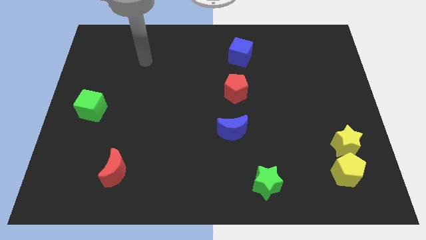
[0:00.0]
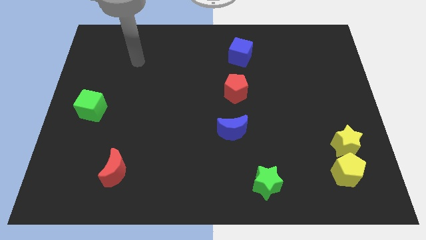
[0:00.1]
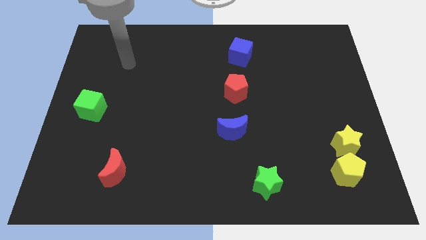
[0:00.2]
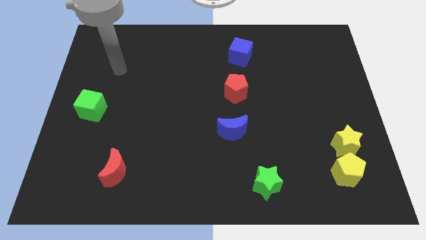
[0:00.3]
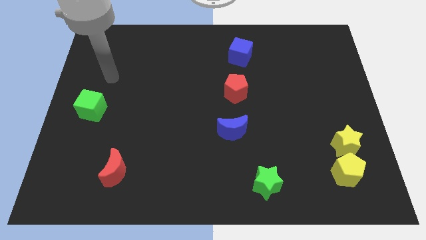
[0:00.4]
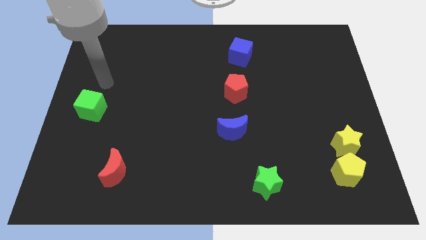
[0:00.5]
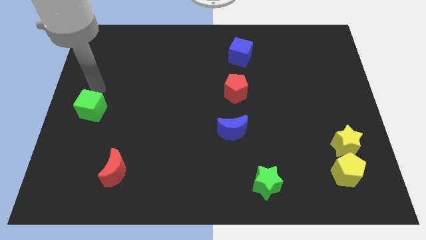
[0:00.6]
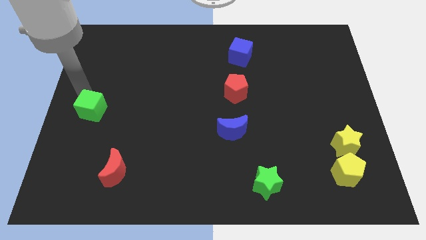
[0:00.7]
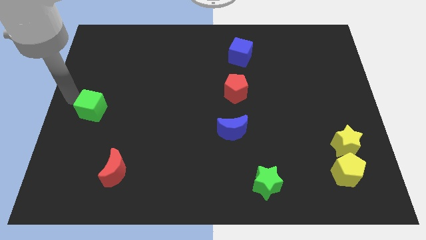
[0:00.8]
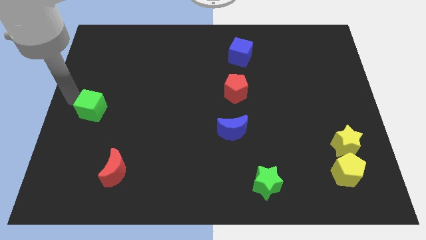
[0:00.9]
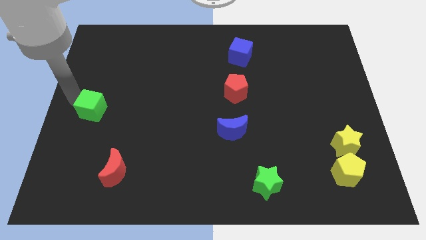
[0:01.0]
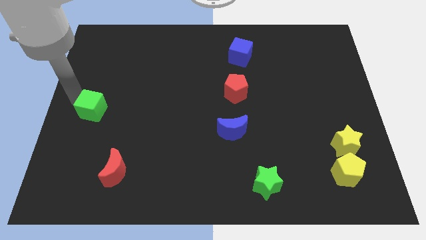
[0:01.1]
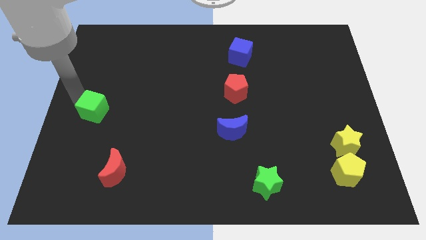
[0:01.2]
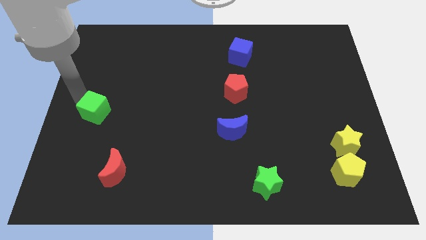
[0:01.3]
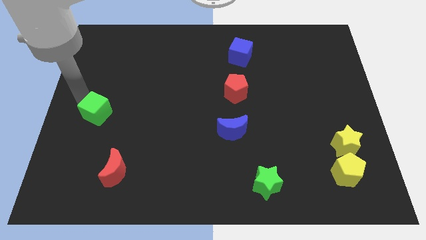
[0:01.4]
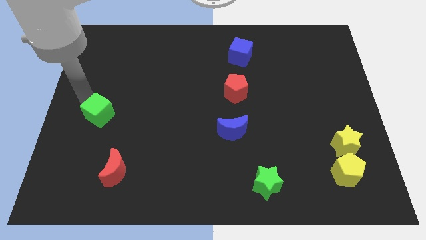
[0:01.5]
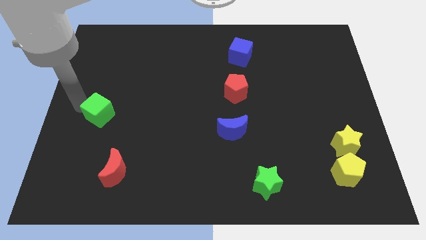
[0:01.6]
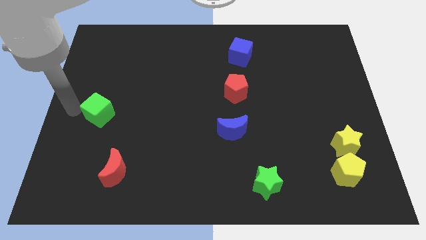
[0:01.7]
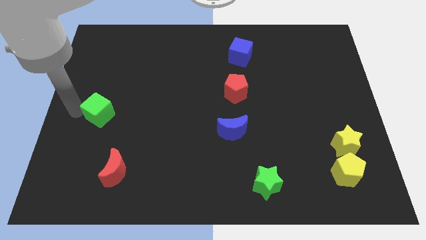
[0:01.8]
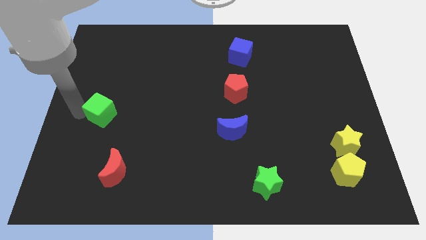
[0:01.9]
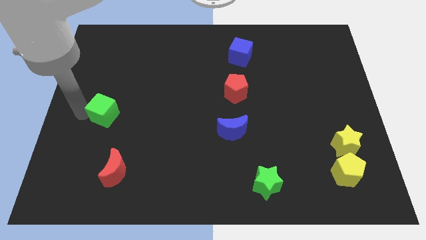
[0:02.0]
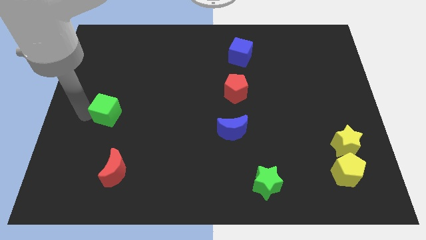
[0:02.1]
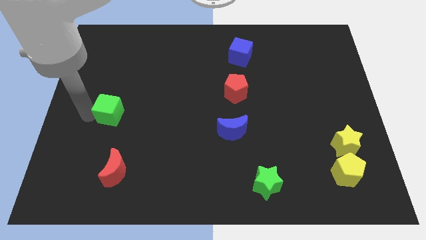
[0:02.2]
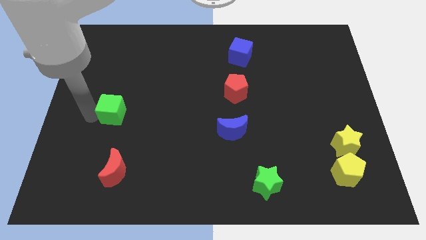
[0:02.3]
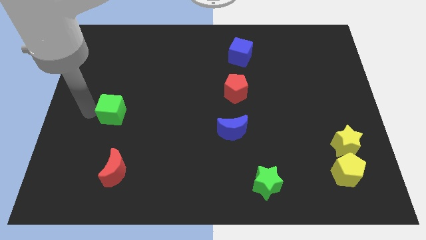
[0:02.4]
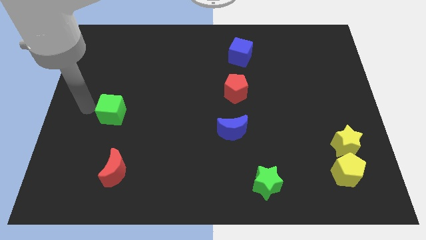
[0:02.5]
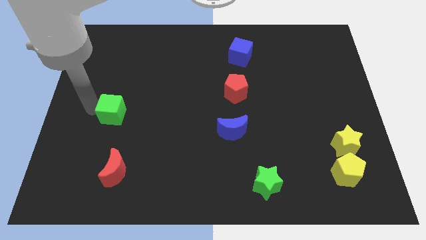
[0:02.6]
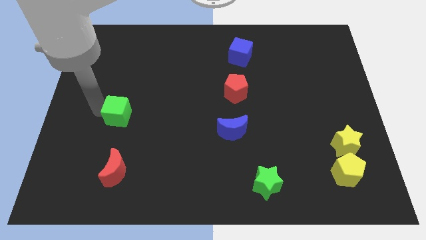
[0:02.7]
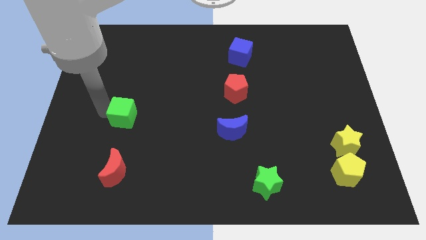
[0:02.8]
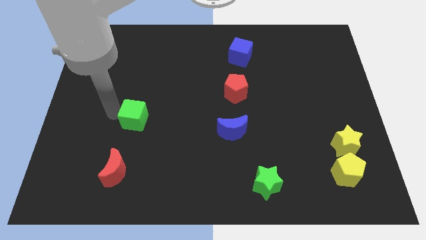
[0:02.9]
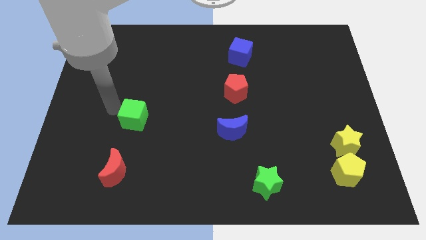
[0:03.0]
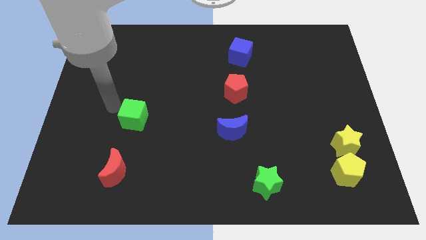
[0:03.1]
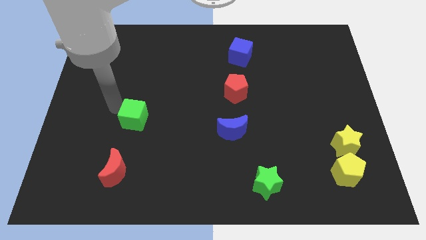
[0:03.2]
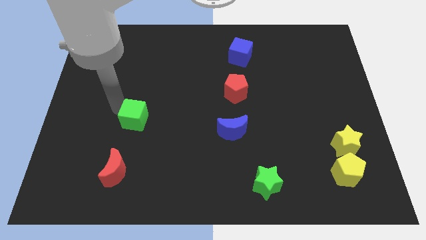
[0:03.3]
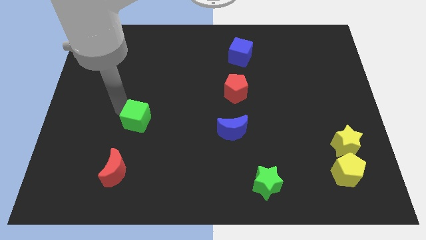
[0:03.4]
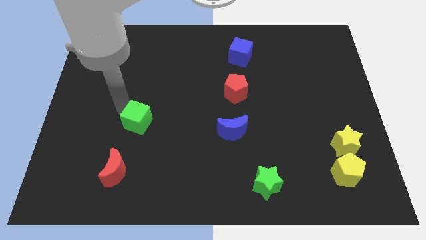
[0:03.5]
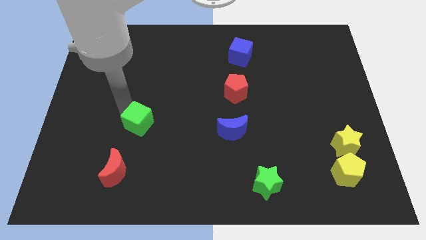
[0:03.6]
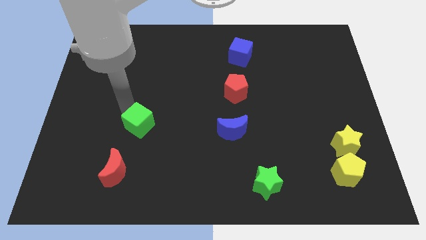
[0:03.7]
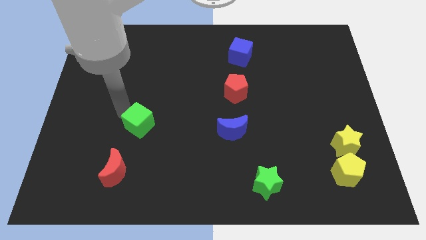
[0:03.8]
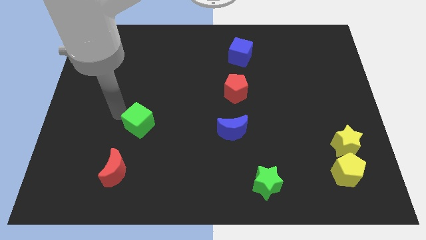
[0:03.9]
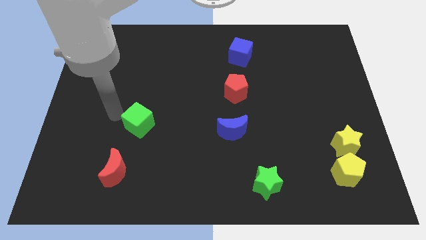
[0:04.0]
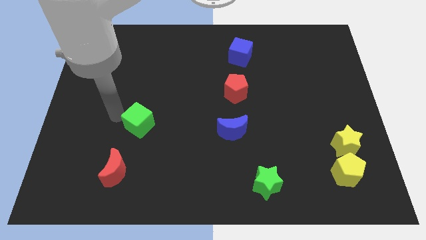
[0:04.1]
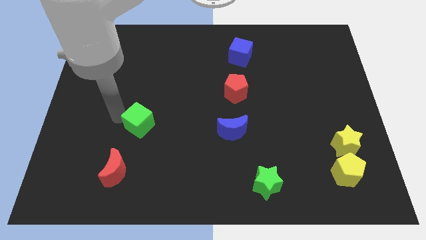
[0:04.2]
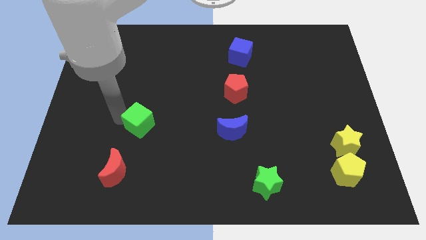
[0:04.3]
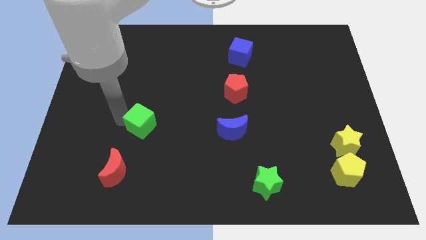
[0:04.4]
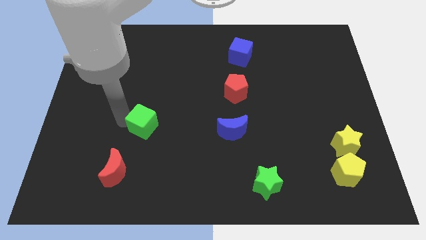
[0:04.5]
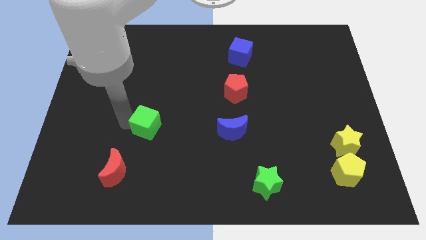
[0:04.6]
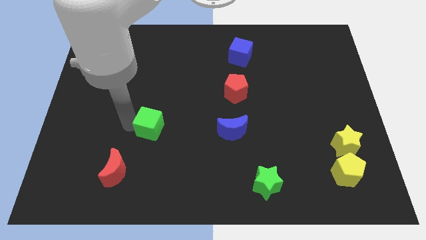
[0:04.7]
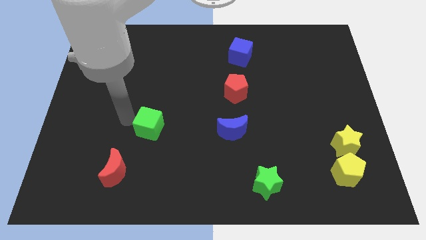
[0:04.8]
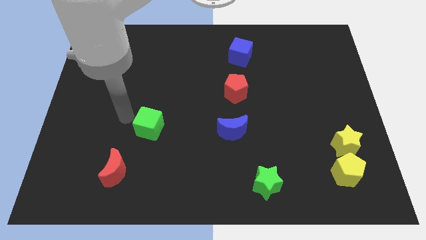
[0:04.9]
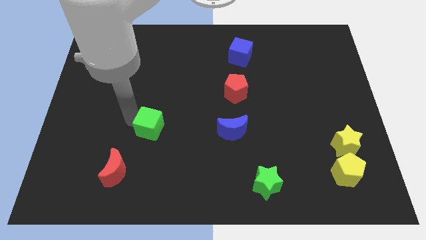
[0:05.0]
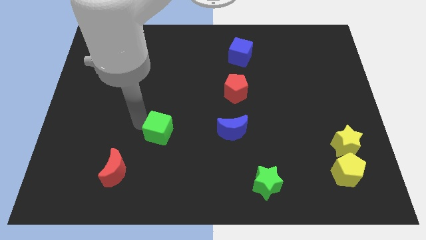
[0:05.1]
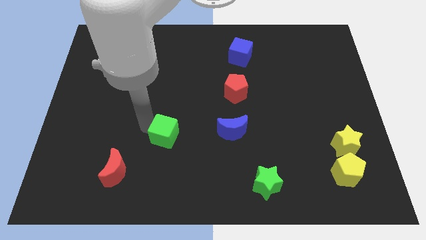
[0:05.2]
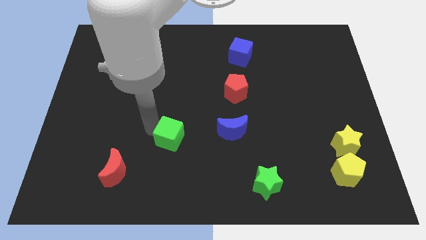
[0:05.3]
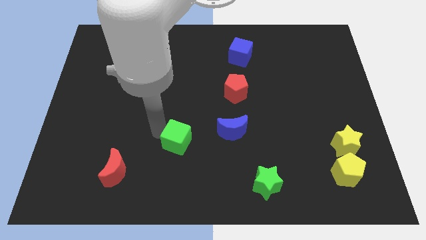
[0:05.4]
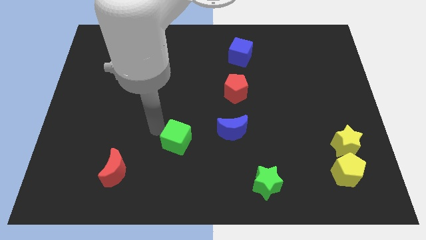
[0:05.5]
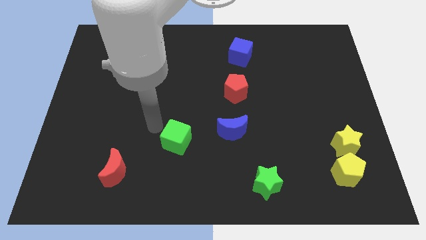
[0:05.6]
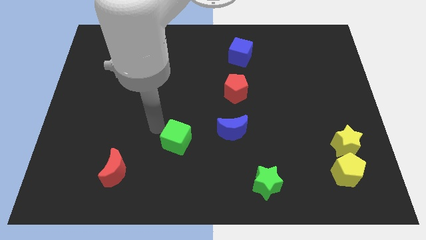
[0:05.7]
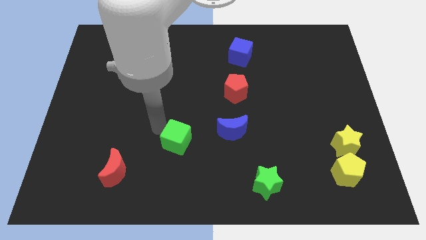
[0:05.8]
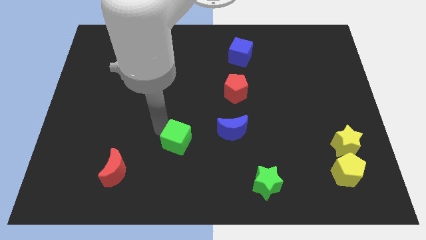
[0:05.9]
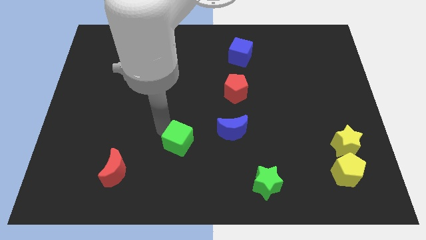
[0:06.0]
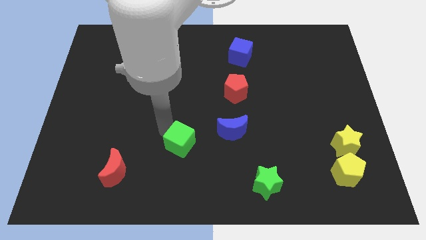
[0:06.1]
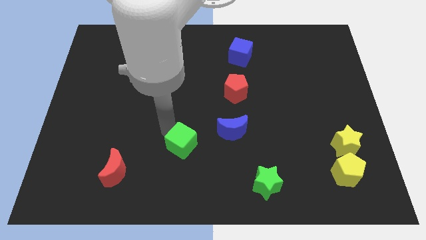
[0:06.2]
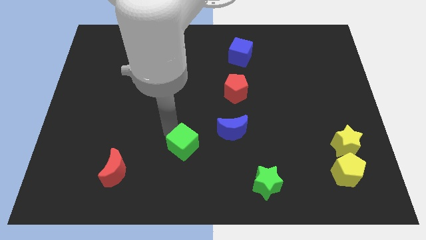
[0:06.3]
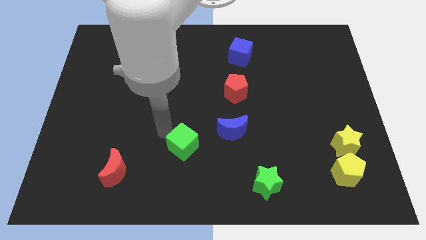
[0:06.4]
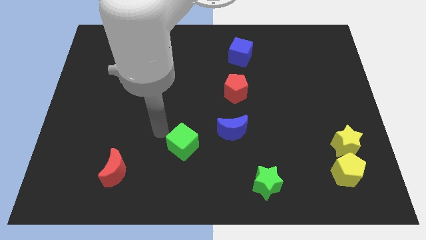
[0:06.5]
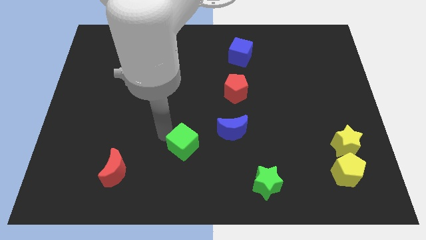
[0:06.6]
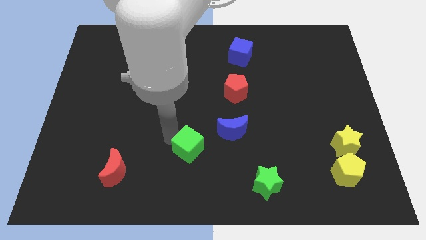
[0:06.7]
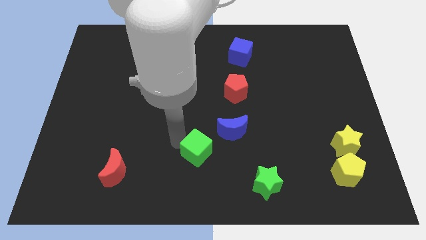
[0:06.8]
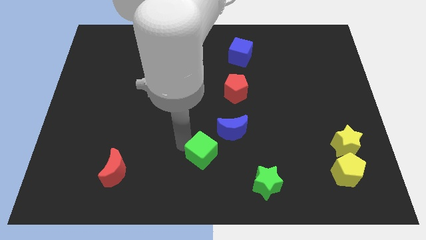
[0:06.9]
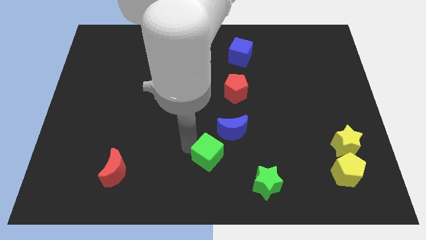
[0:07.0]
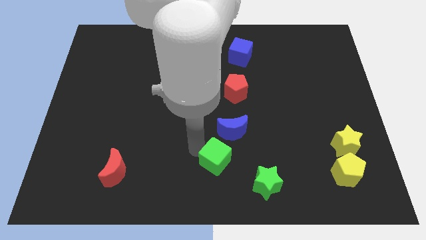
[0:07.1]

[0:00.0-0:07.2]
move the green cube to the bottom side of the blue moon
